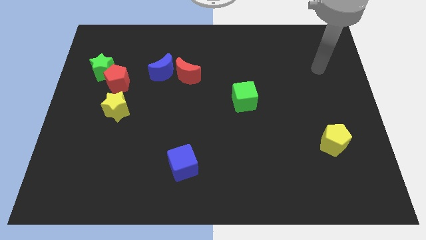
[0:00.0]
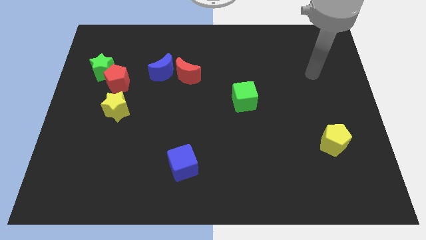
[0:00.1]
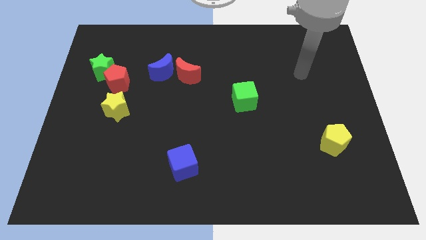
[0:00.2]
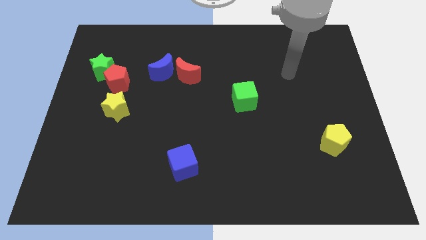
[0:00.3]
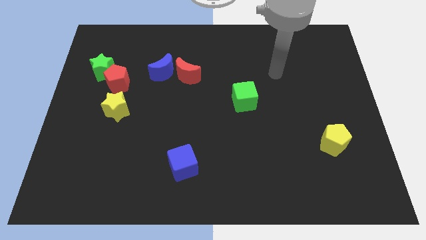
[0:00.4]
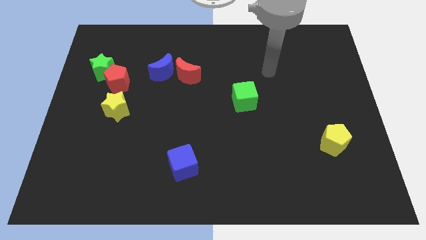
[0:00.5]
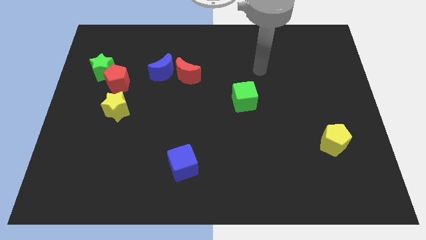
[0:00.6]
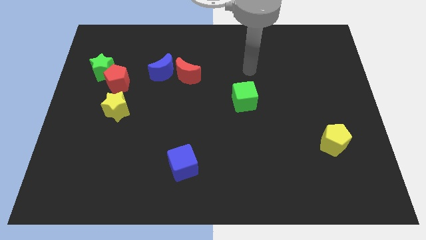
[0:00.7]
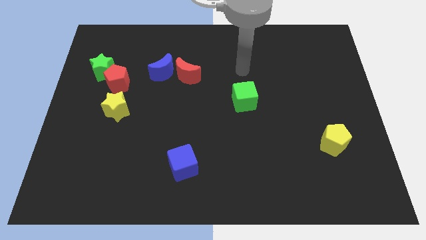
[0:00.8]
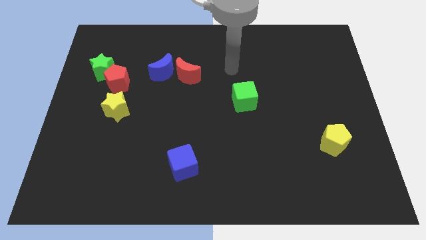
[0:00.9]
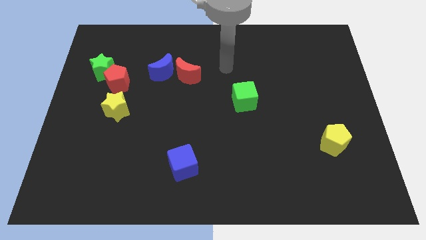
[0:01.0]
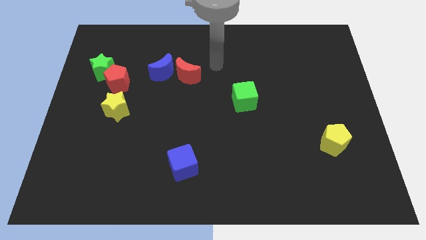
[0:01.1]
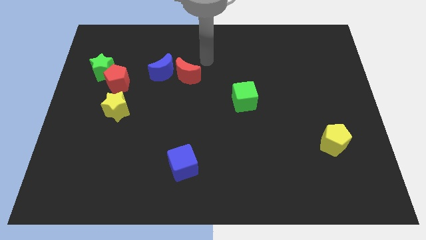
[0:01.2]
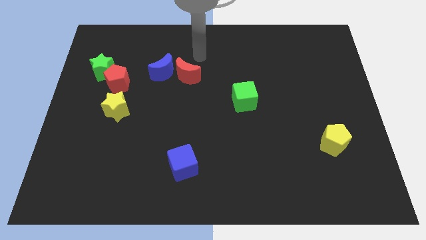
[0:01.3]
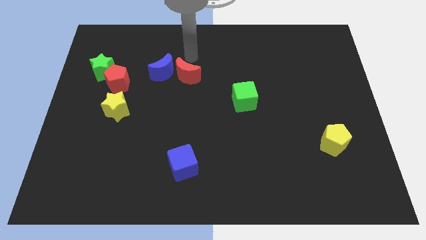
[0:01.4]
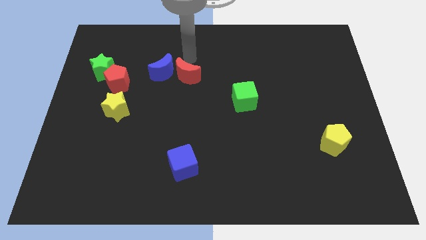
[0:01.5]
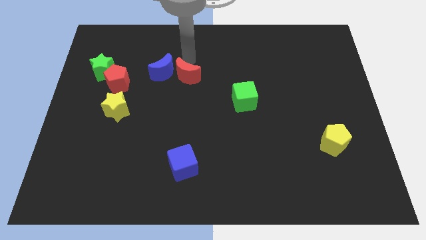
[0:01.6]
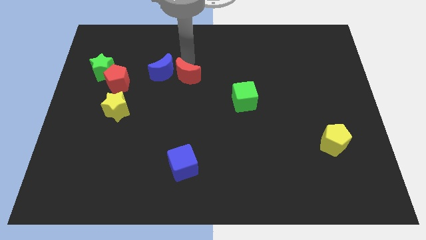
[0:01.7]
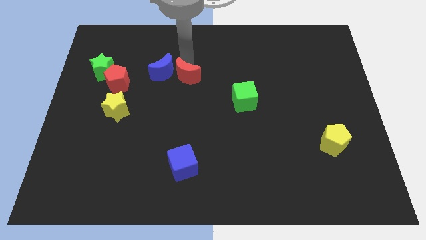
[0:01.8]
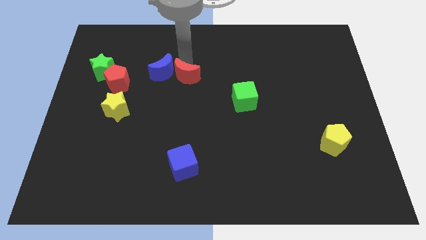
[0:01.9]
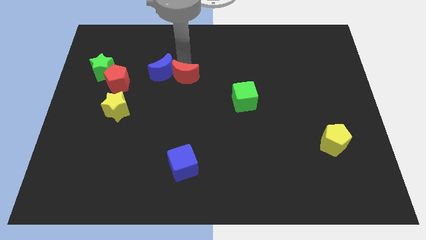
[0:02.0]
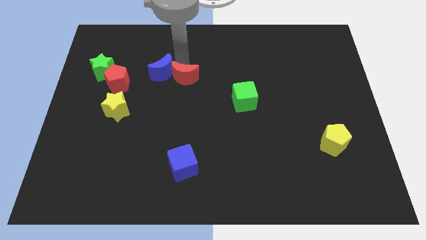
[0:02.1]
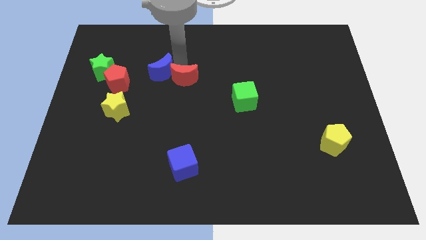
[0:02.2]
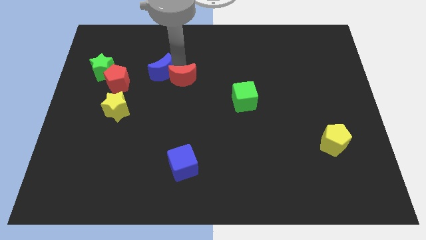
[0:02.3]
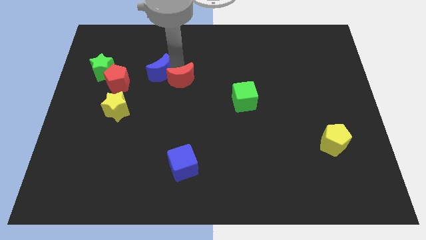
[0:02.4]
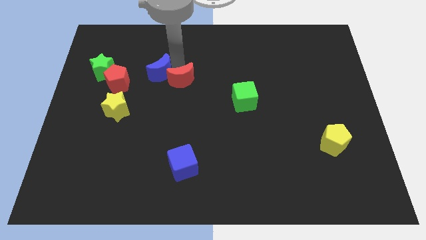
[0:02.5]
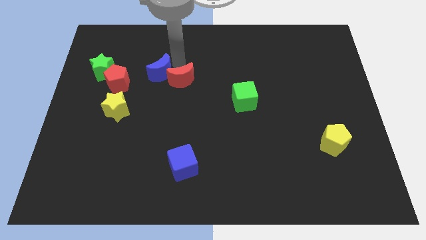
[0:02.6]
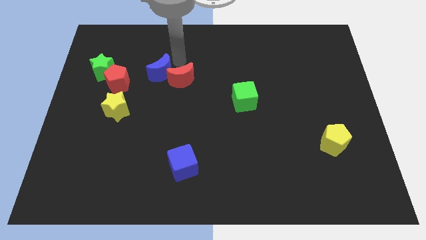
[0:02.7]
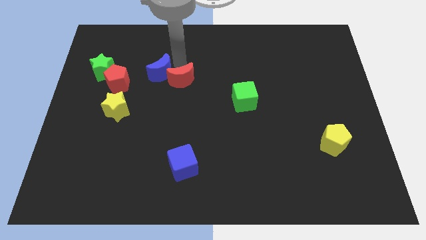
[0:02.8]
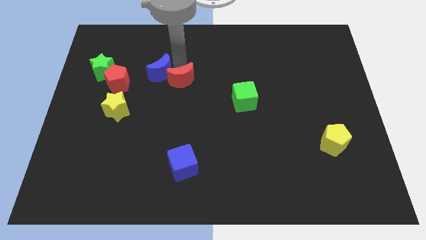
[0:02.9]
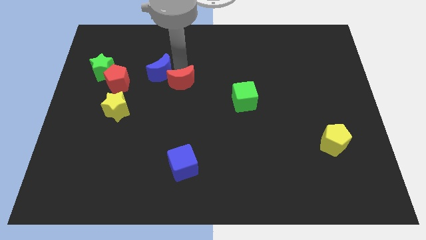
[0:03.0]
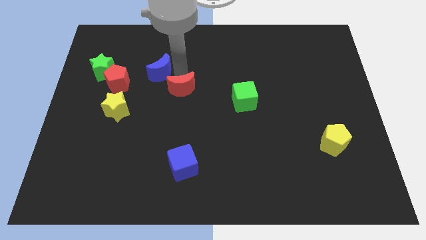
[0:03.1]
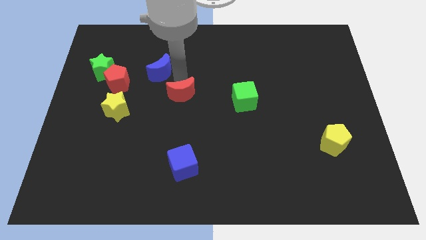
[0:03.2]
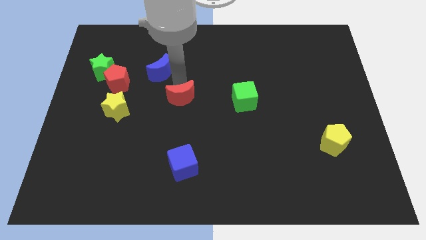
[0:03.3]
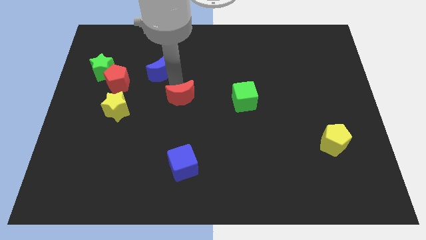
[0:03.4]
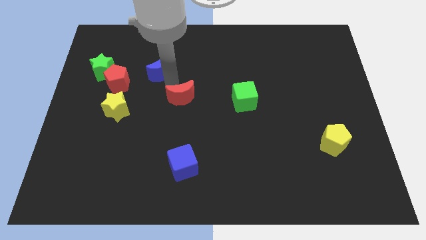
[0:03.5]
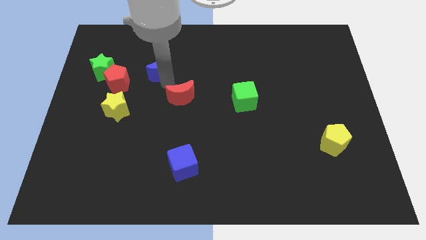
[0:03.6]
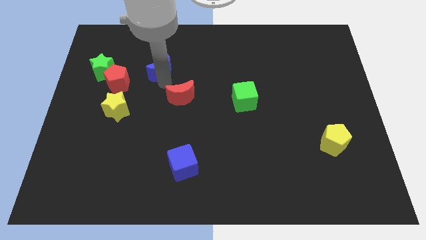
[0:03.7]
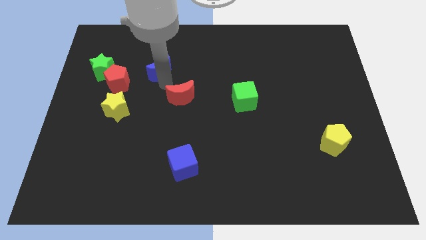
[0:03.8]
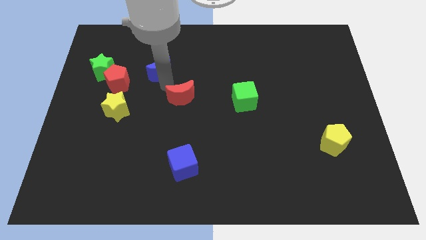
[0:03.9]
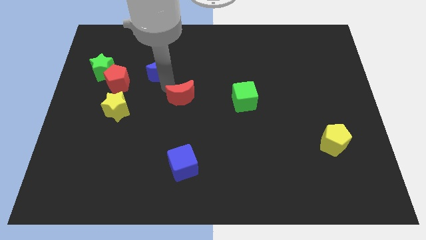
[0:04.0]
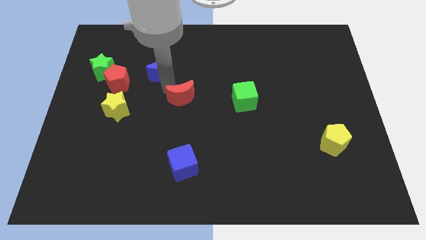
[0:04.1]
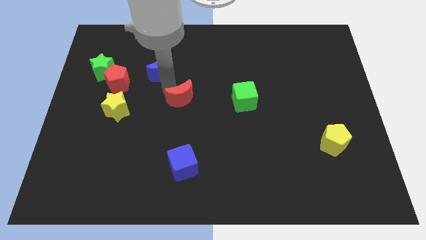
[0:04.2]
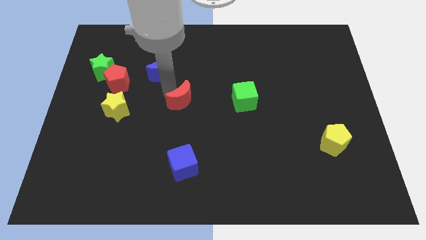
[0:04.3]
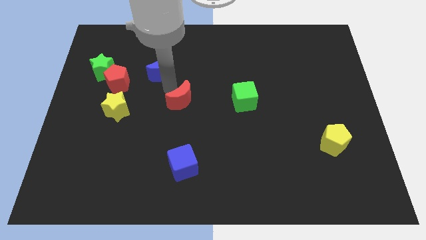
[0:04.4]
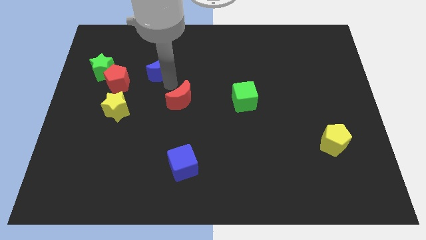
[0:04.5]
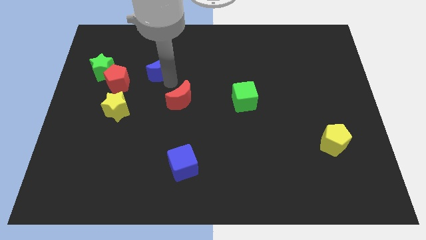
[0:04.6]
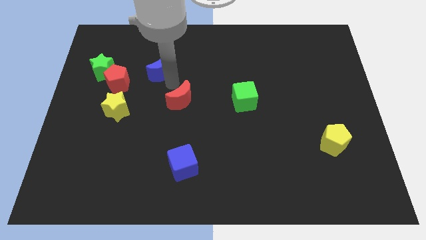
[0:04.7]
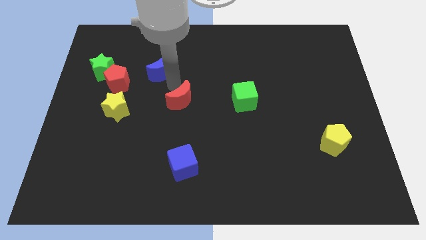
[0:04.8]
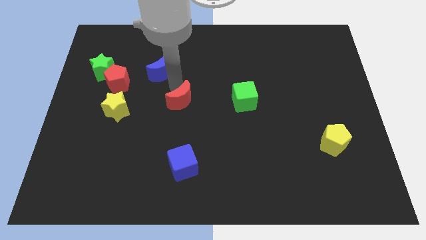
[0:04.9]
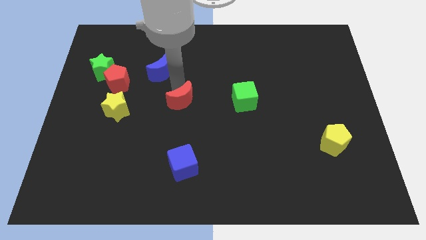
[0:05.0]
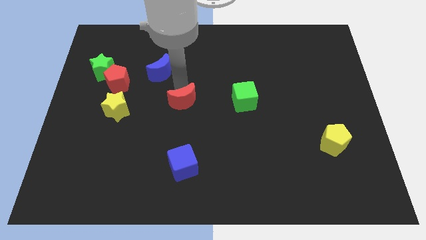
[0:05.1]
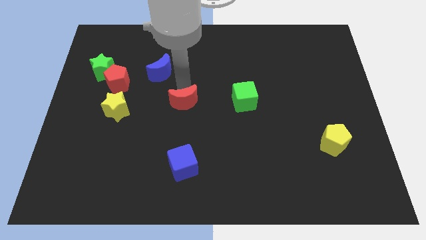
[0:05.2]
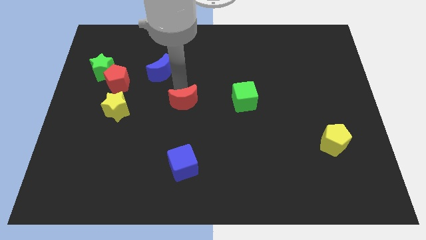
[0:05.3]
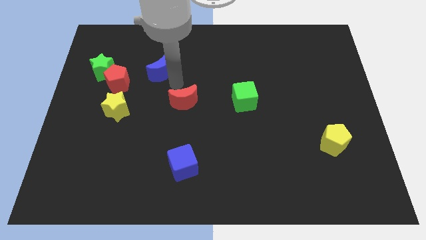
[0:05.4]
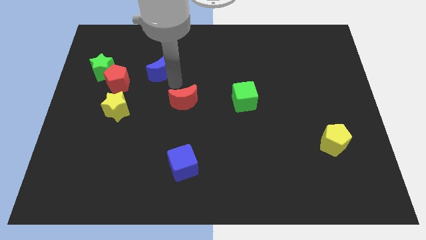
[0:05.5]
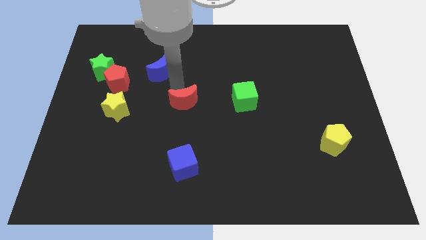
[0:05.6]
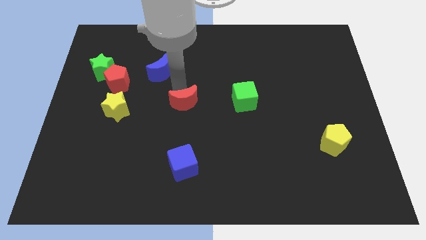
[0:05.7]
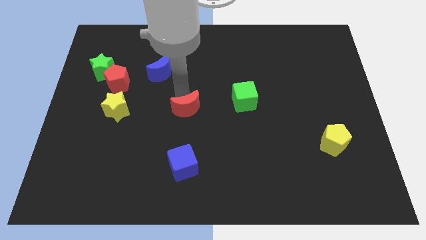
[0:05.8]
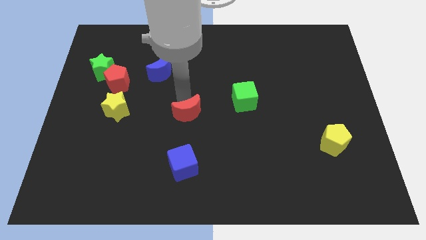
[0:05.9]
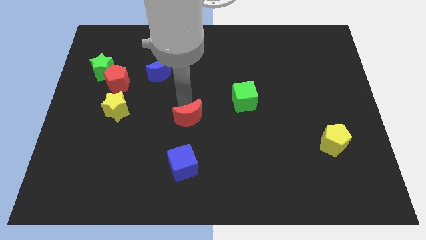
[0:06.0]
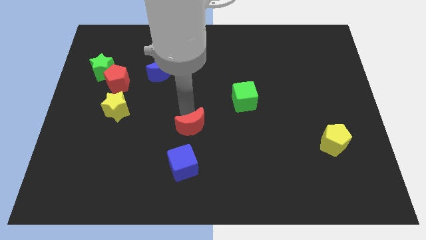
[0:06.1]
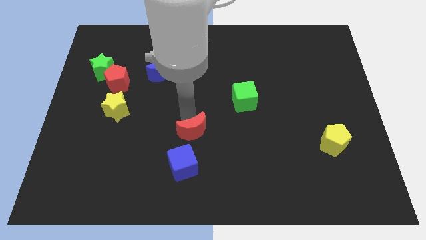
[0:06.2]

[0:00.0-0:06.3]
slide the red moon to the top right of the blue cube

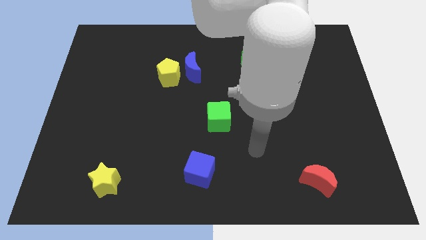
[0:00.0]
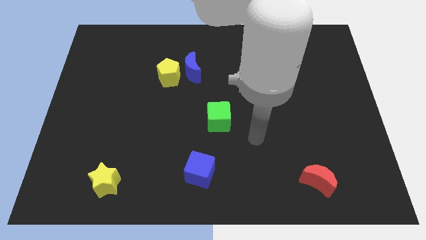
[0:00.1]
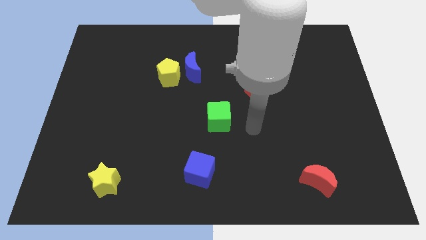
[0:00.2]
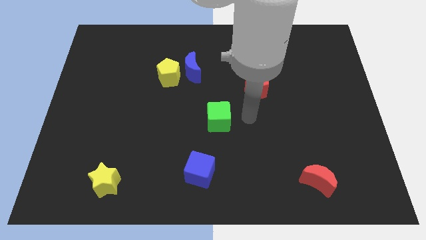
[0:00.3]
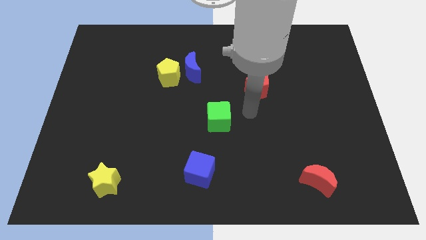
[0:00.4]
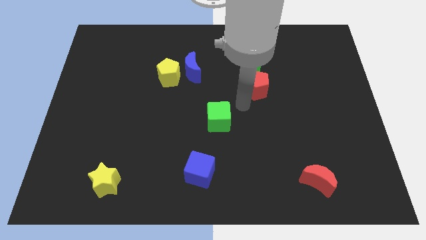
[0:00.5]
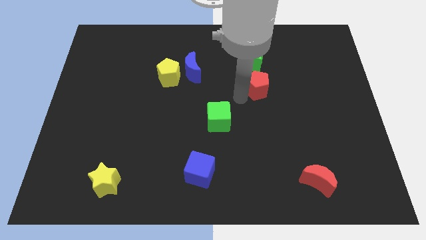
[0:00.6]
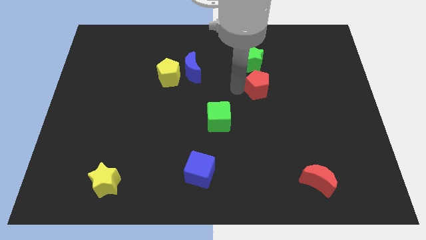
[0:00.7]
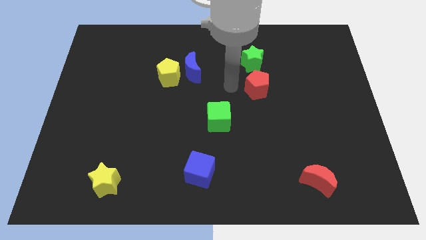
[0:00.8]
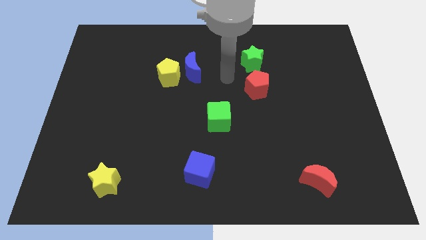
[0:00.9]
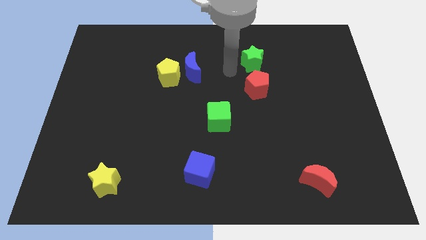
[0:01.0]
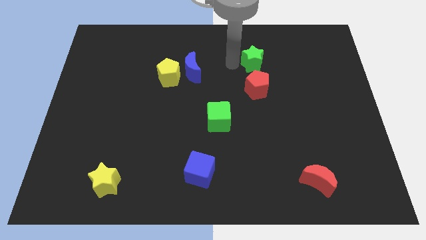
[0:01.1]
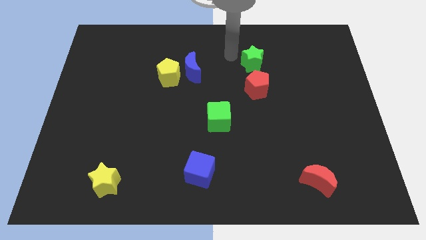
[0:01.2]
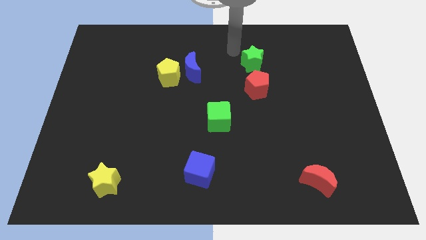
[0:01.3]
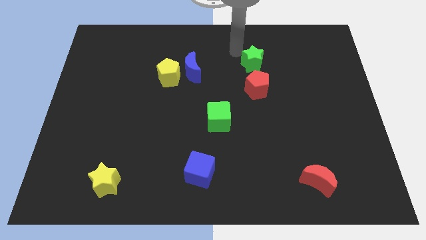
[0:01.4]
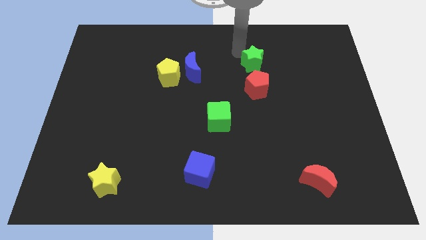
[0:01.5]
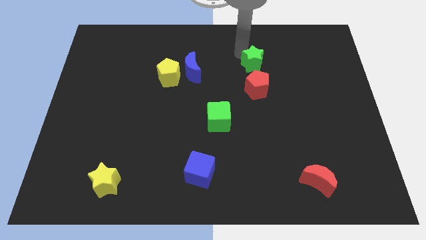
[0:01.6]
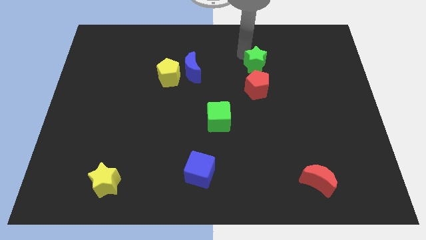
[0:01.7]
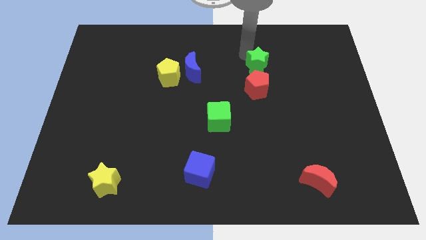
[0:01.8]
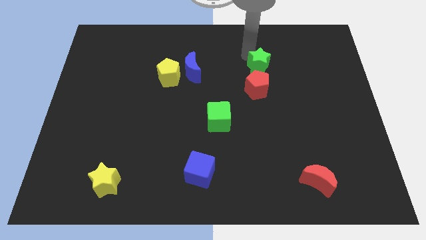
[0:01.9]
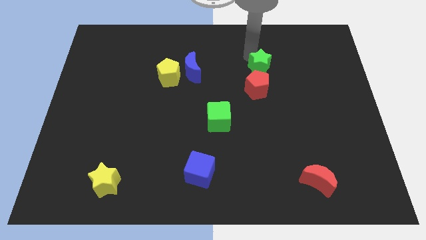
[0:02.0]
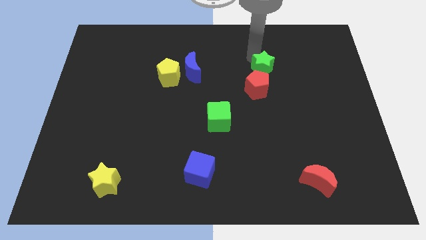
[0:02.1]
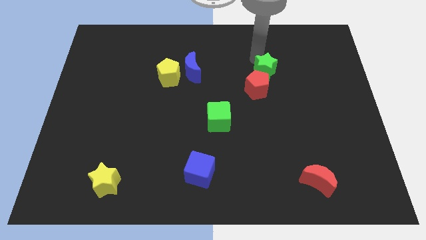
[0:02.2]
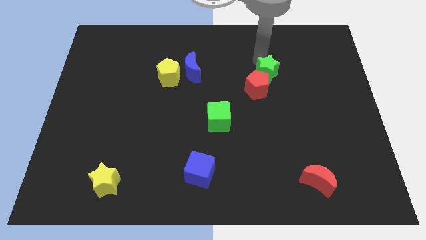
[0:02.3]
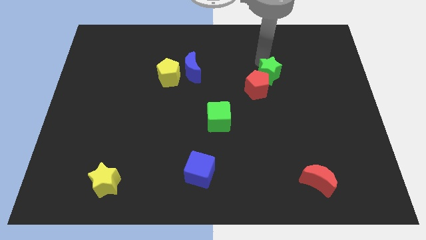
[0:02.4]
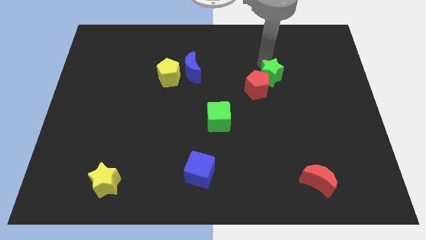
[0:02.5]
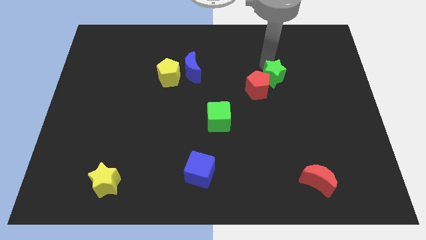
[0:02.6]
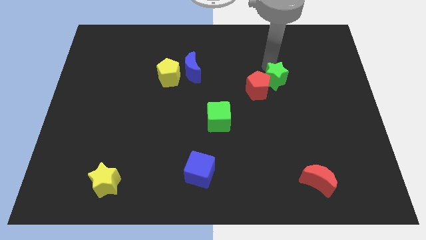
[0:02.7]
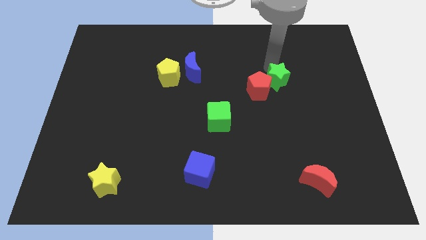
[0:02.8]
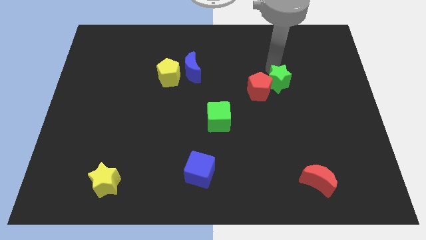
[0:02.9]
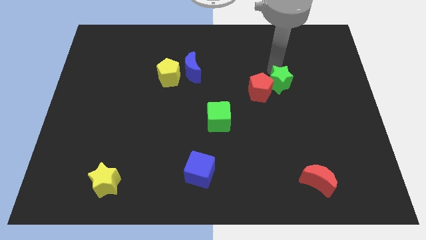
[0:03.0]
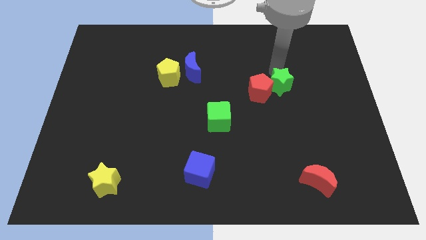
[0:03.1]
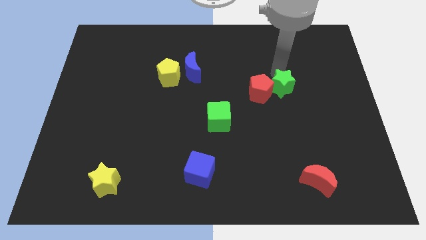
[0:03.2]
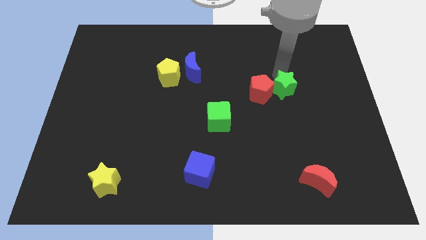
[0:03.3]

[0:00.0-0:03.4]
slide the green star diagonally down and to the right of the red pentagon
